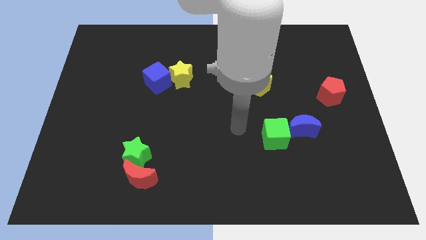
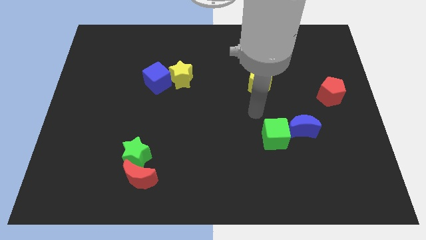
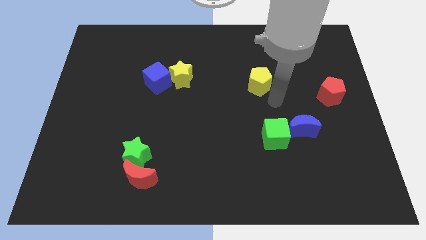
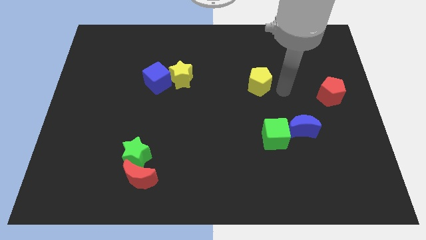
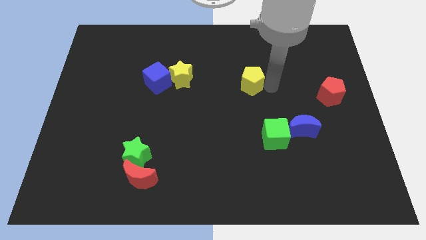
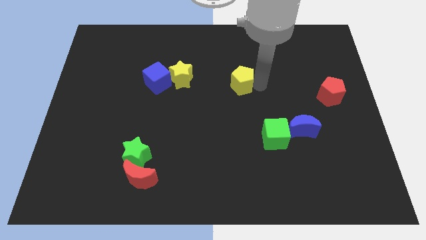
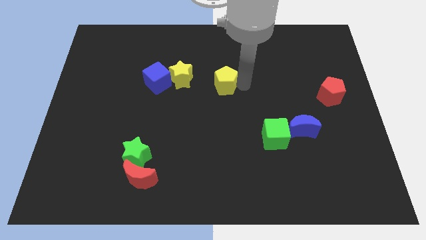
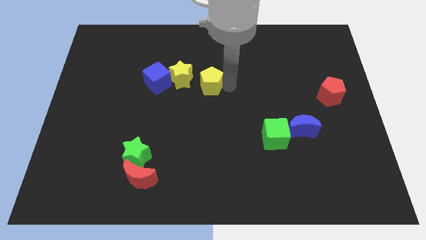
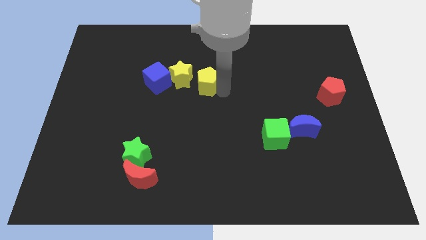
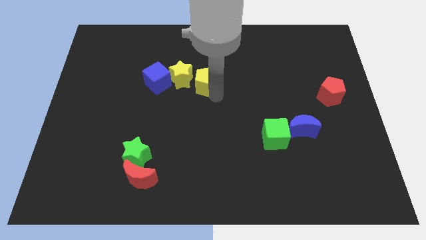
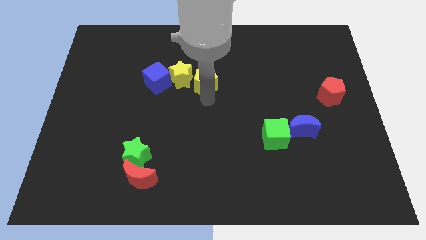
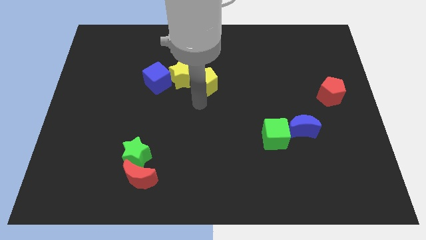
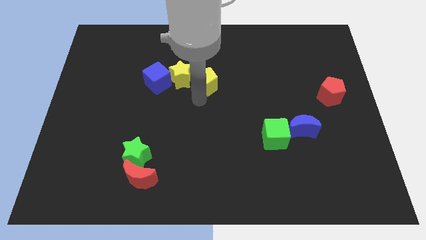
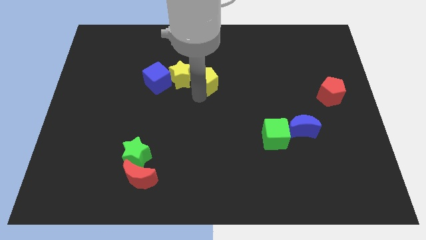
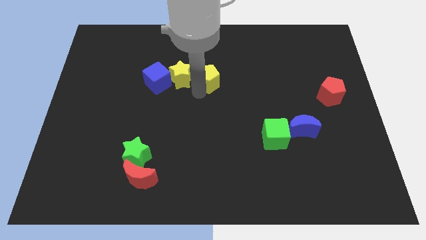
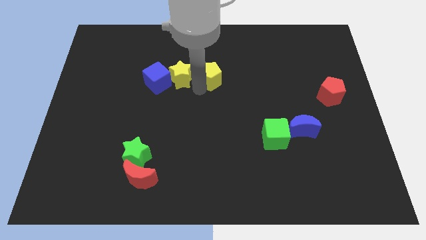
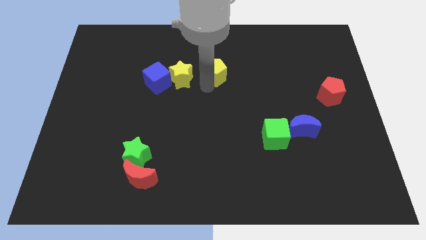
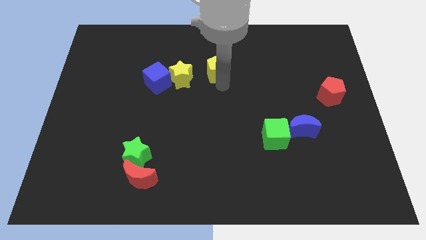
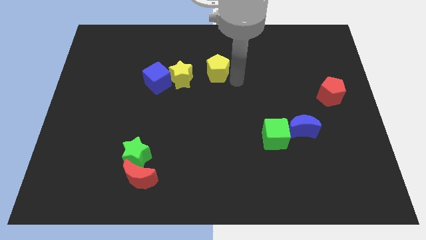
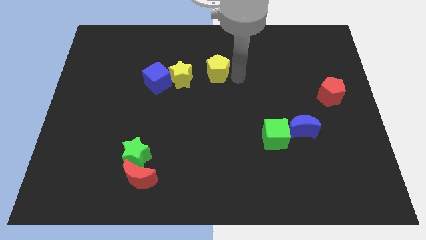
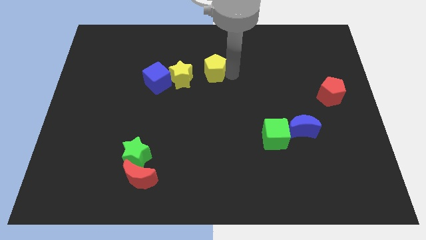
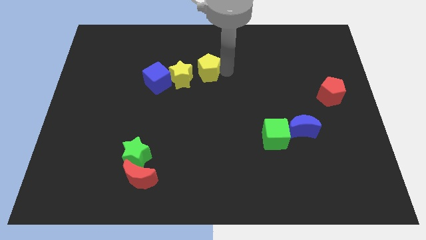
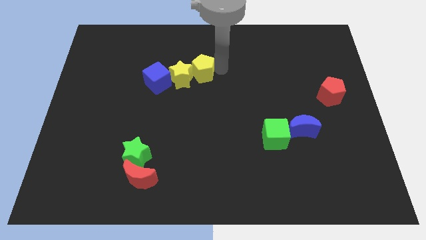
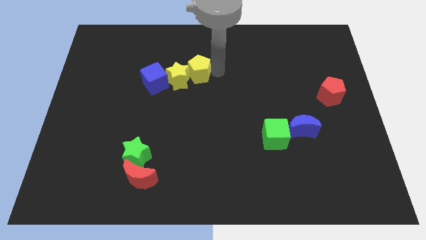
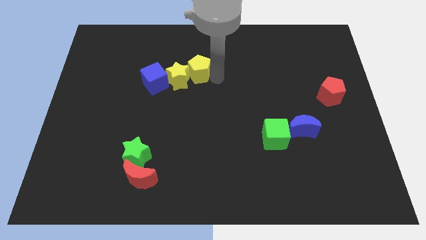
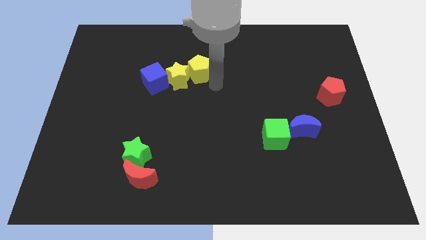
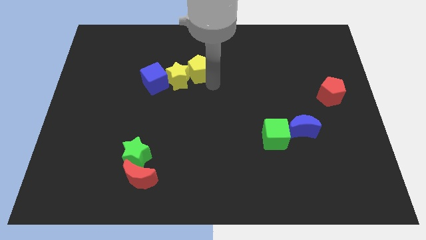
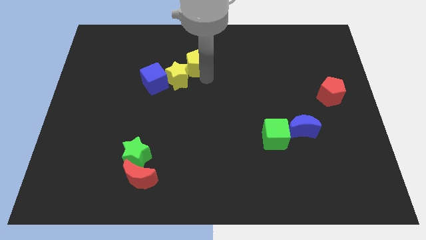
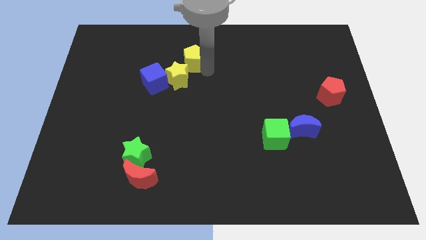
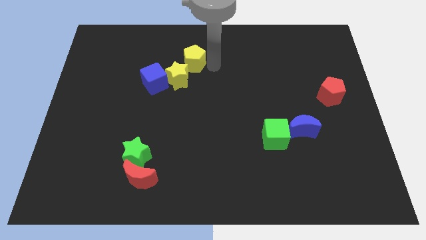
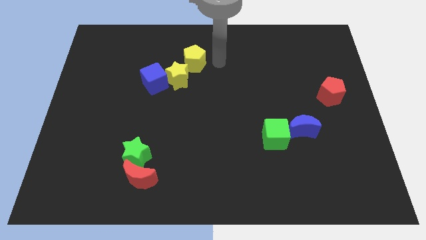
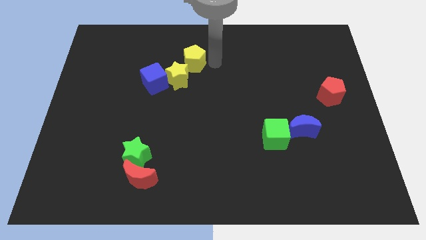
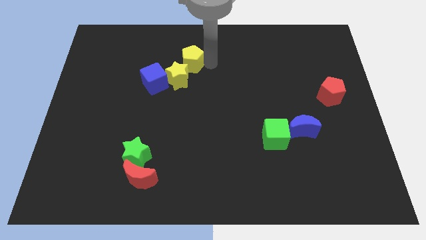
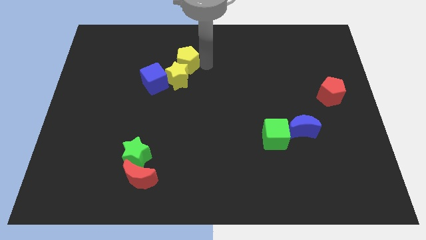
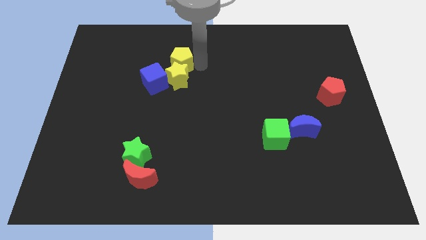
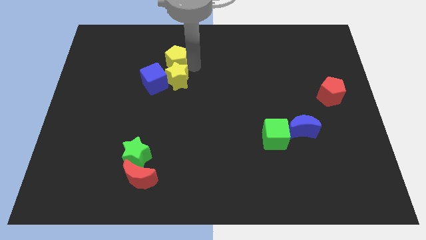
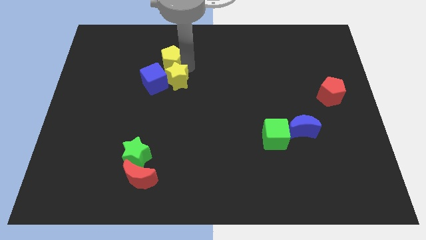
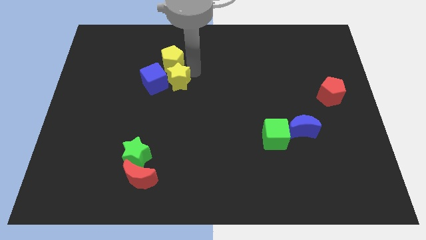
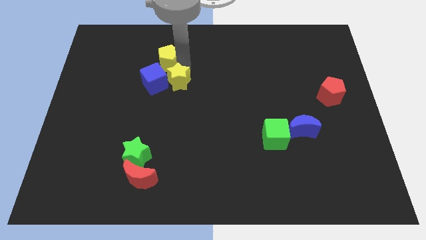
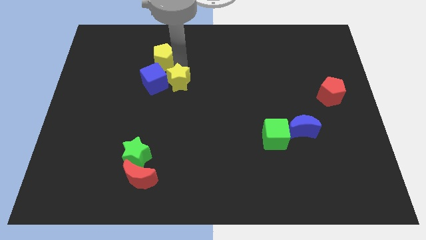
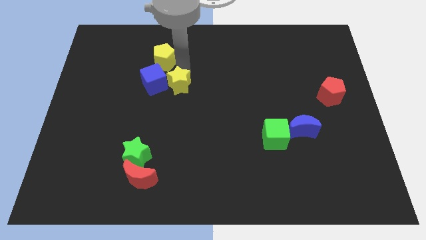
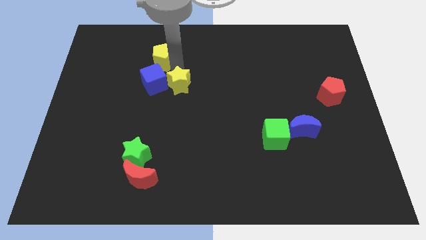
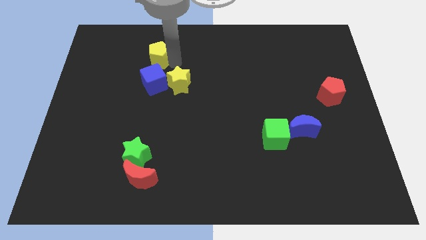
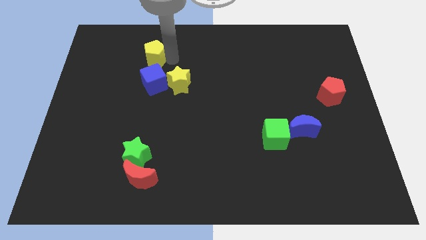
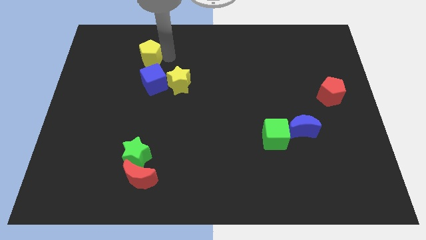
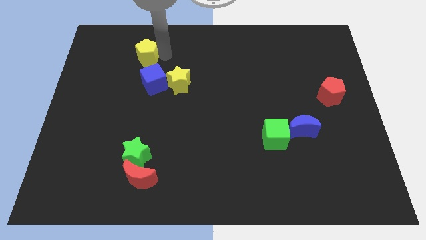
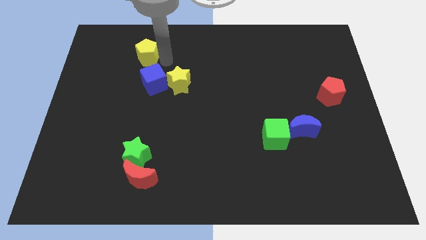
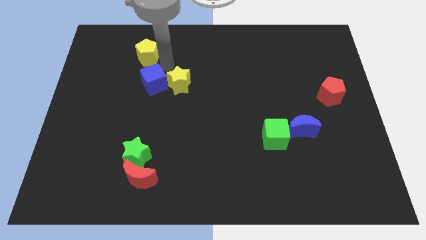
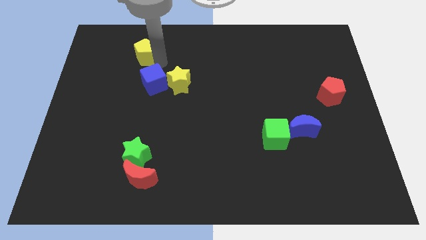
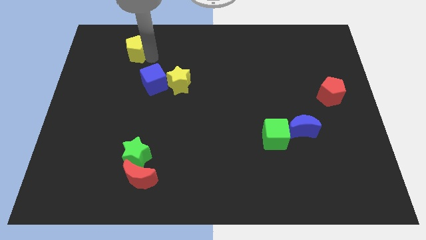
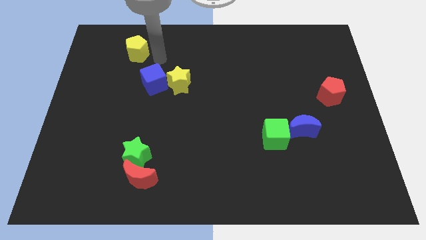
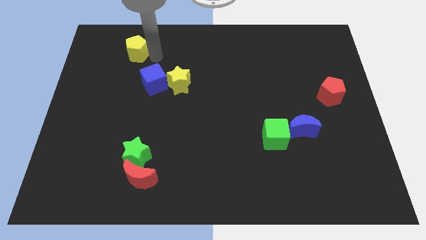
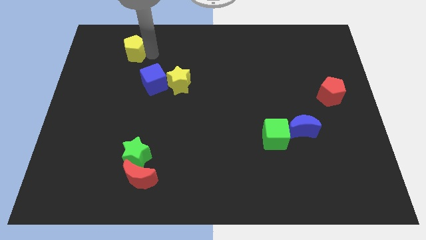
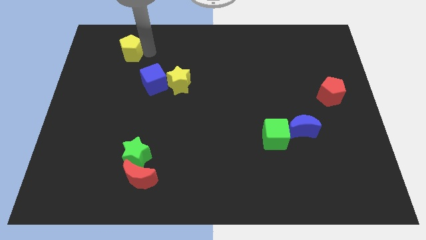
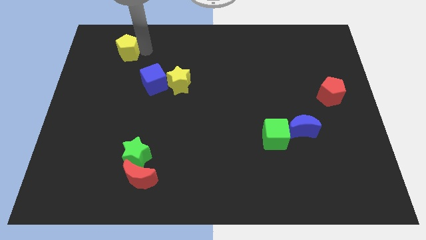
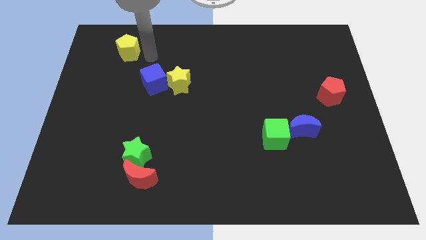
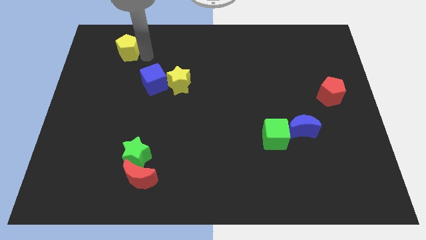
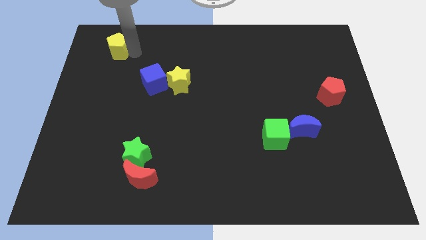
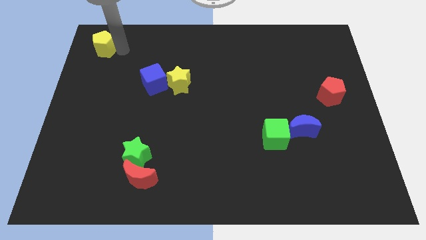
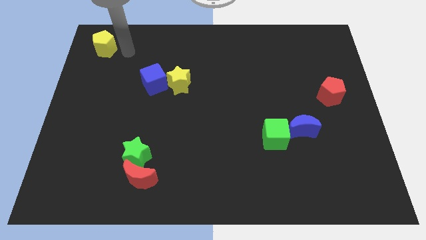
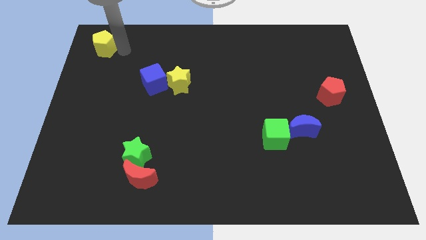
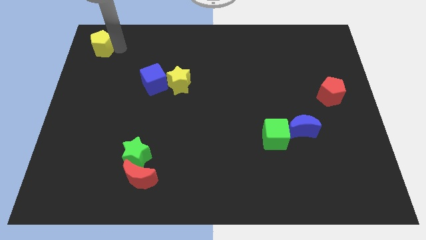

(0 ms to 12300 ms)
move the yellow pentagon to the top left of the board
